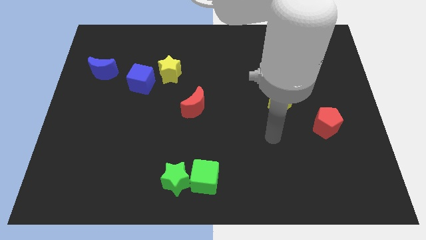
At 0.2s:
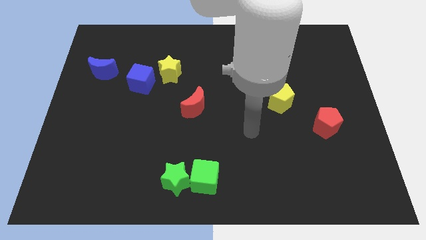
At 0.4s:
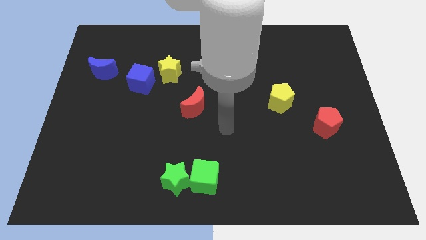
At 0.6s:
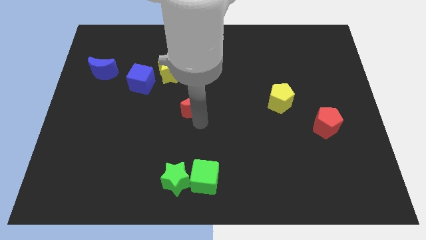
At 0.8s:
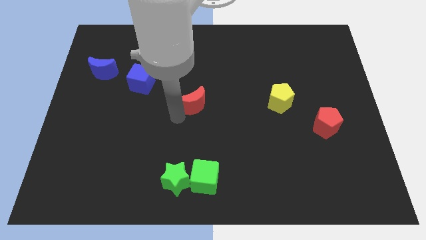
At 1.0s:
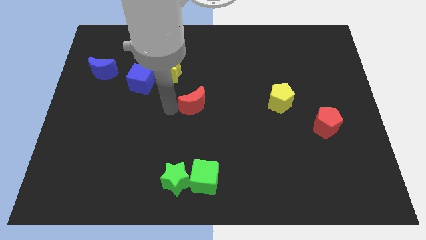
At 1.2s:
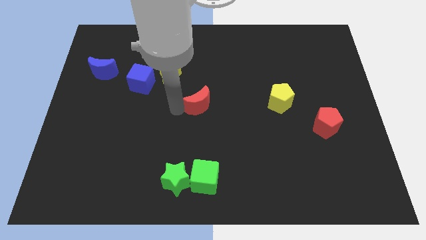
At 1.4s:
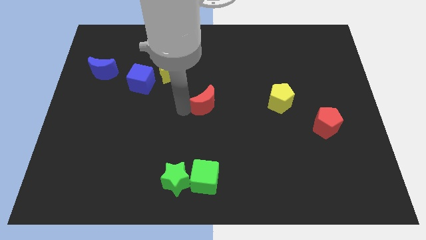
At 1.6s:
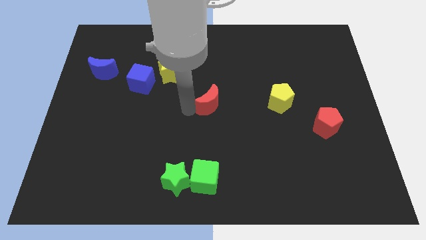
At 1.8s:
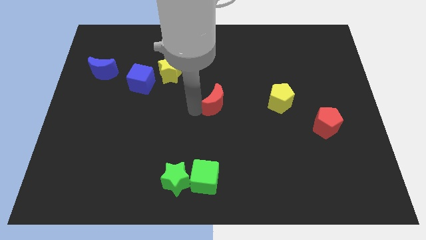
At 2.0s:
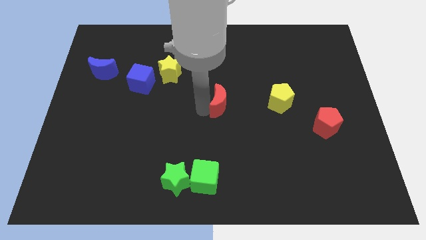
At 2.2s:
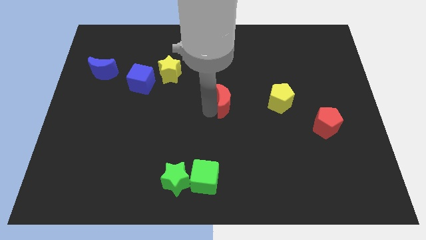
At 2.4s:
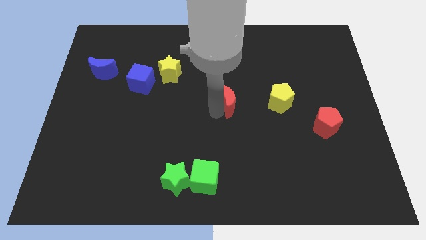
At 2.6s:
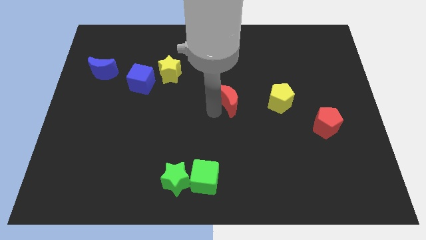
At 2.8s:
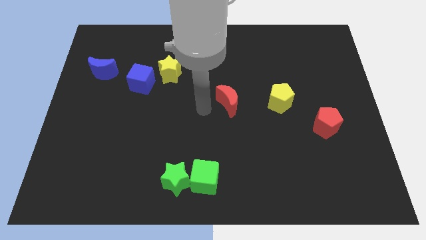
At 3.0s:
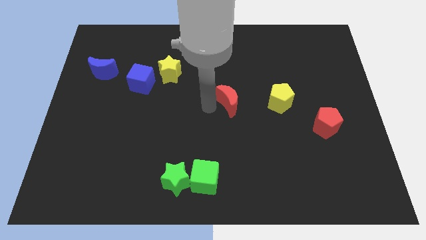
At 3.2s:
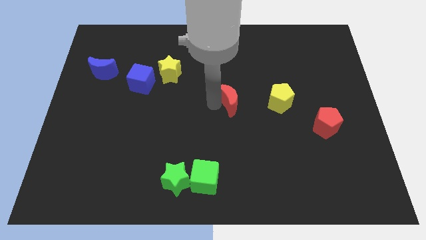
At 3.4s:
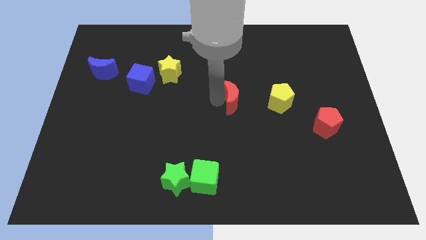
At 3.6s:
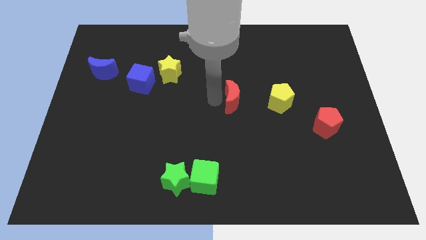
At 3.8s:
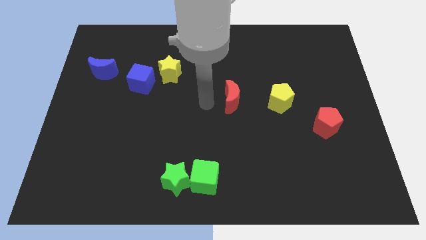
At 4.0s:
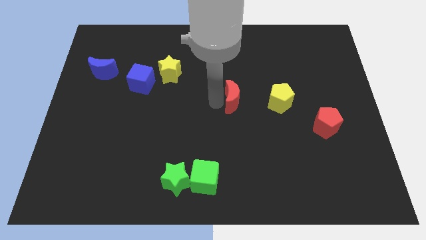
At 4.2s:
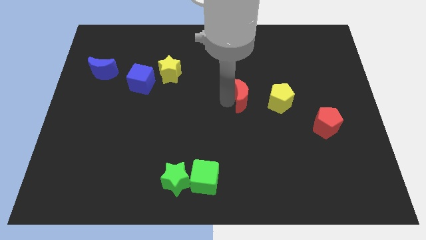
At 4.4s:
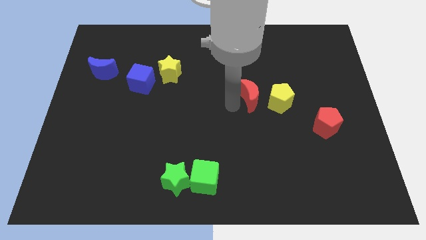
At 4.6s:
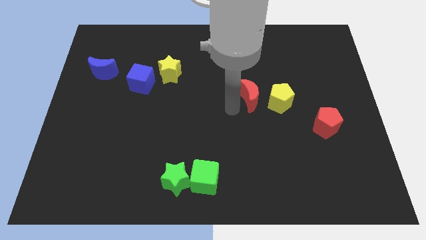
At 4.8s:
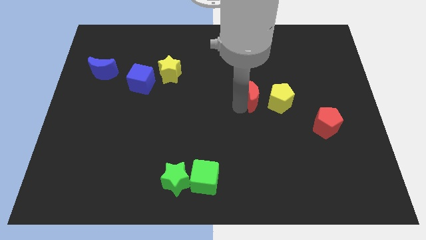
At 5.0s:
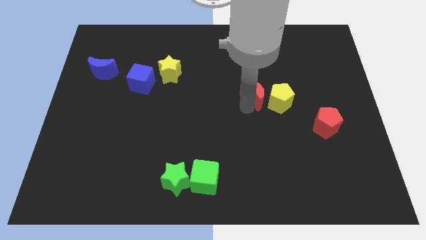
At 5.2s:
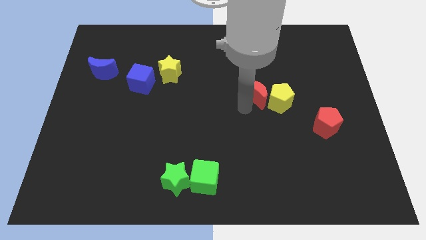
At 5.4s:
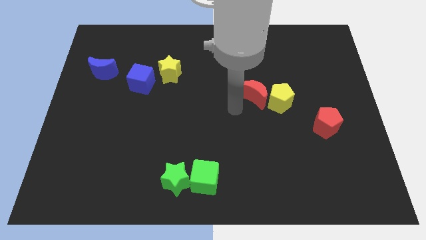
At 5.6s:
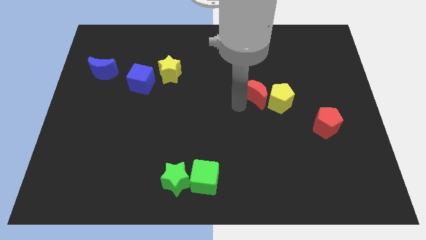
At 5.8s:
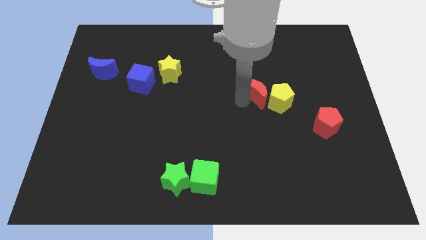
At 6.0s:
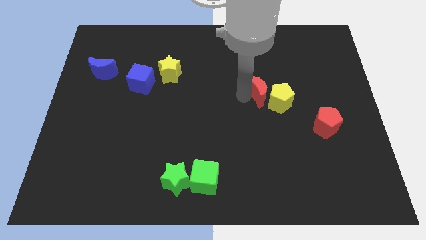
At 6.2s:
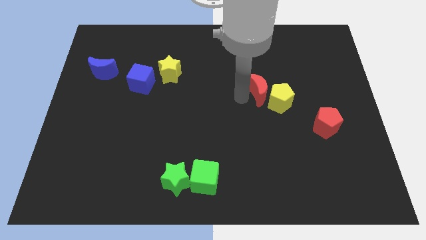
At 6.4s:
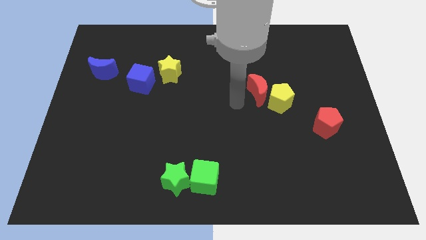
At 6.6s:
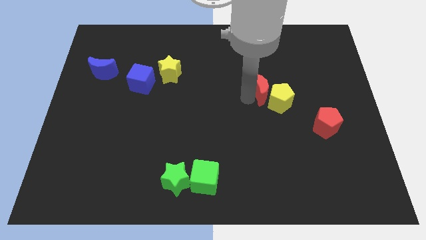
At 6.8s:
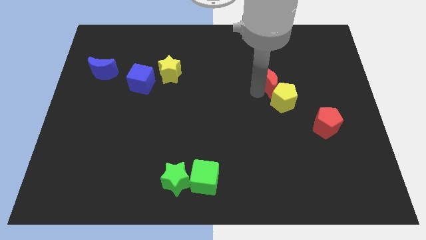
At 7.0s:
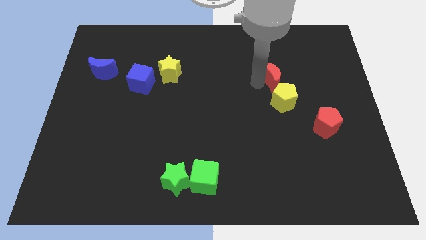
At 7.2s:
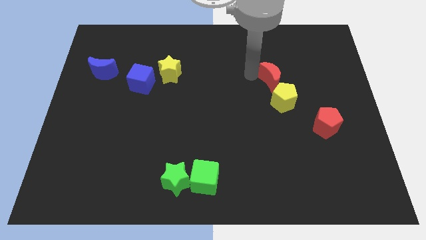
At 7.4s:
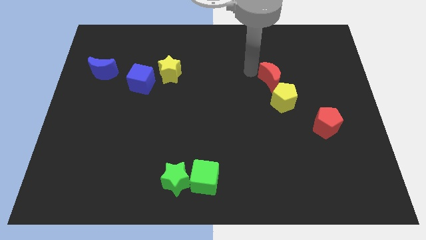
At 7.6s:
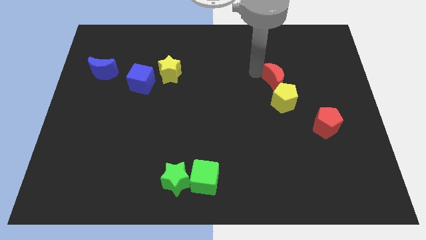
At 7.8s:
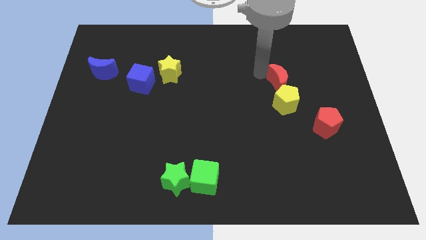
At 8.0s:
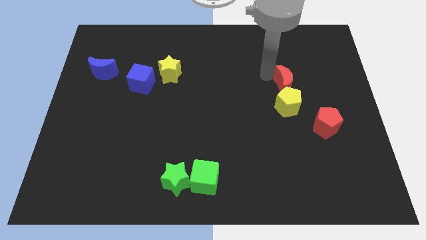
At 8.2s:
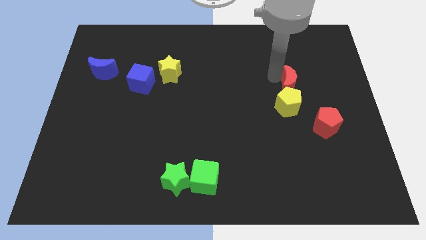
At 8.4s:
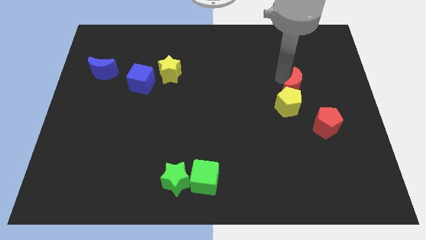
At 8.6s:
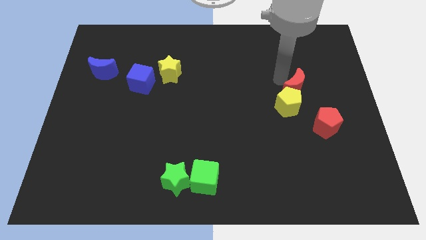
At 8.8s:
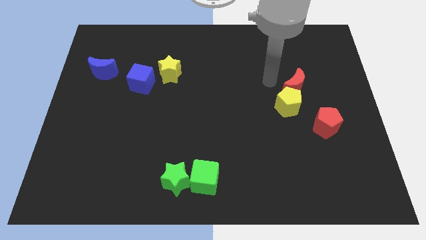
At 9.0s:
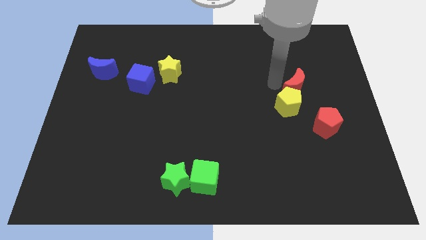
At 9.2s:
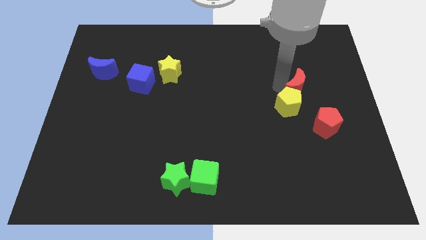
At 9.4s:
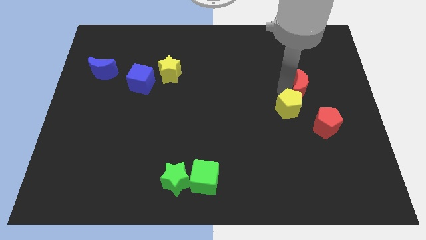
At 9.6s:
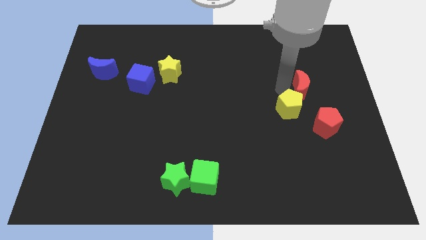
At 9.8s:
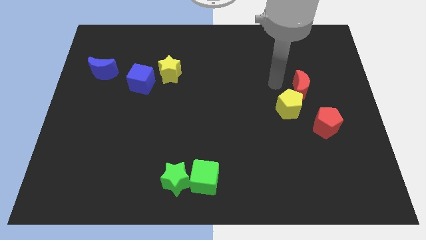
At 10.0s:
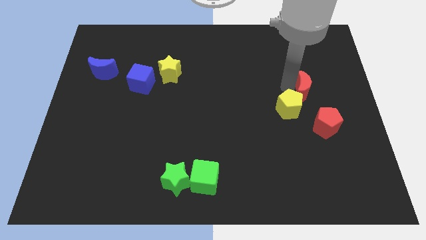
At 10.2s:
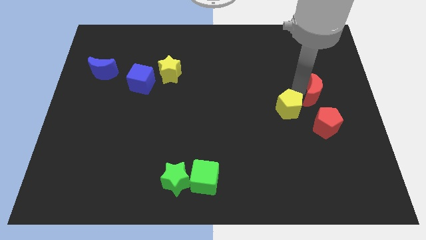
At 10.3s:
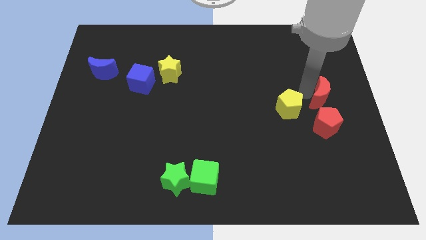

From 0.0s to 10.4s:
slide the red moon to the right side of the board

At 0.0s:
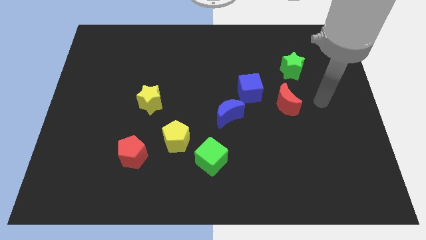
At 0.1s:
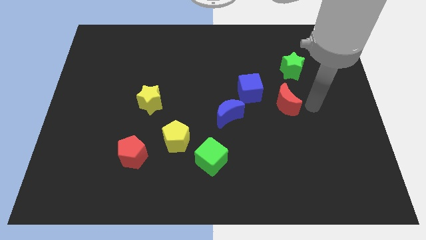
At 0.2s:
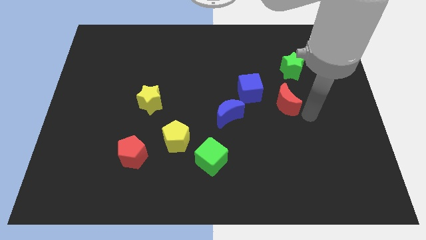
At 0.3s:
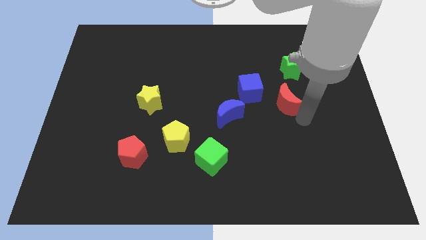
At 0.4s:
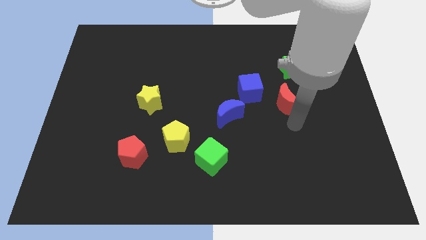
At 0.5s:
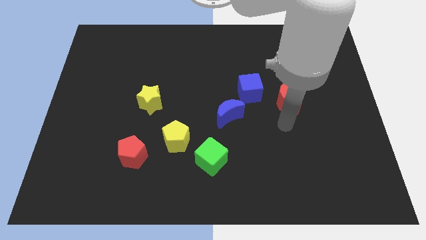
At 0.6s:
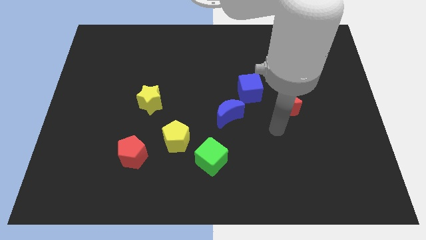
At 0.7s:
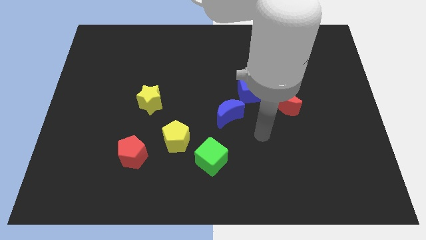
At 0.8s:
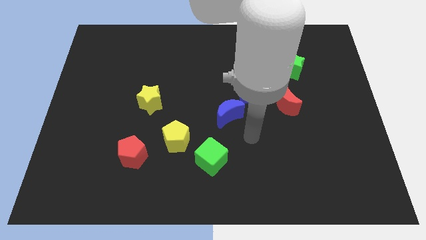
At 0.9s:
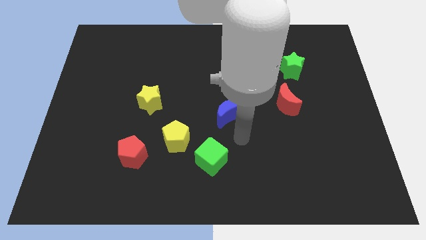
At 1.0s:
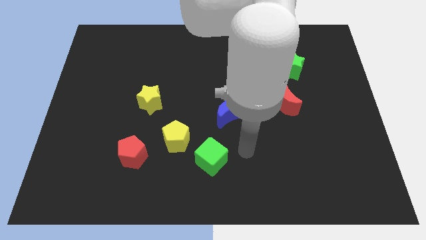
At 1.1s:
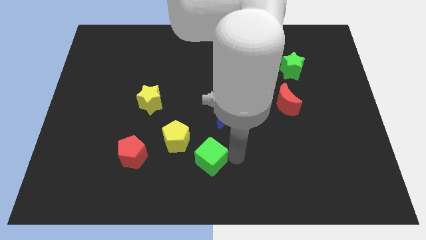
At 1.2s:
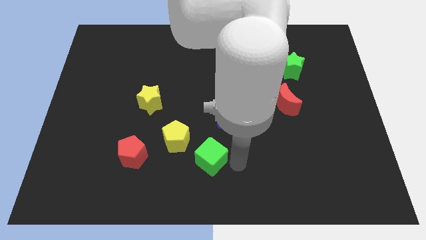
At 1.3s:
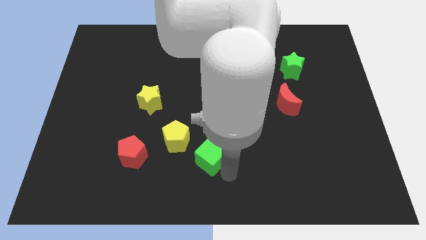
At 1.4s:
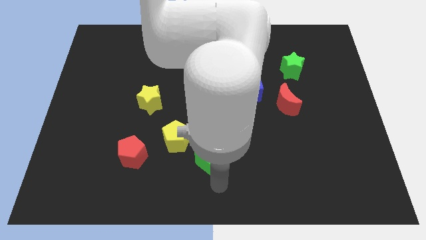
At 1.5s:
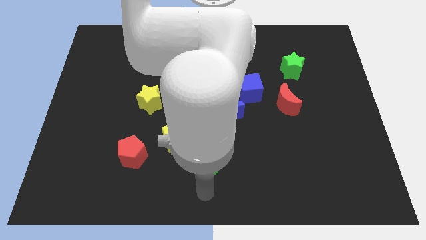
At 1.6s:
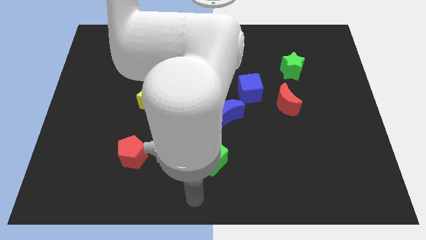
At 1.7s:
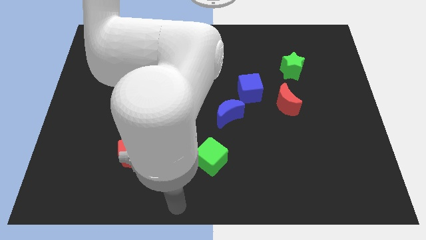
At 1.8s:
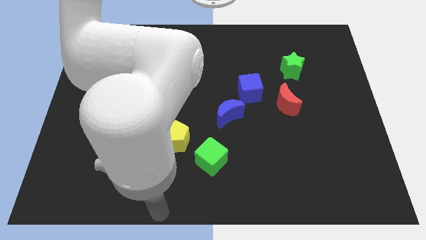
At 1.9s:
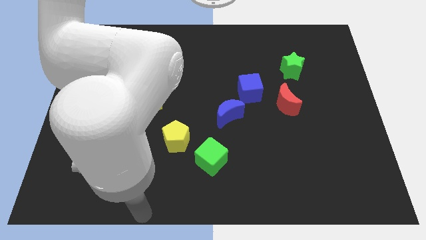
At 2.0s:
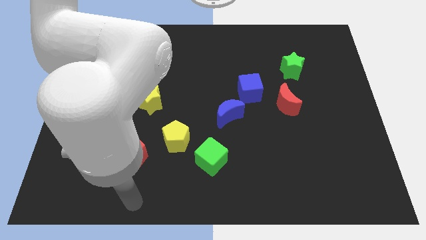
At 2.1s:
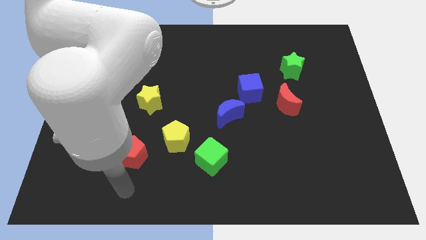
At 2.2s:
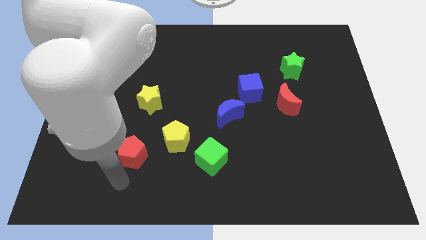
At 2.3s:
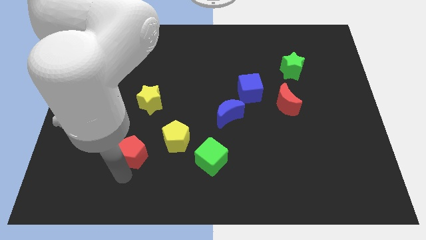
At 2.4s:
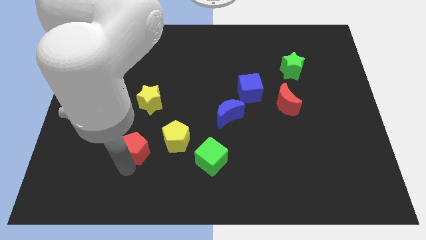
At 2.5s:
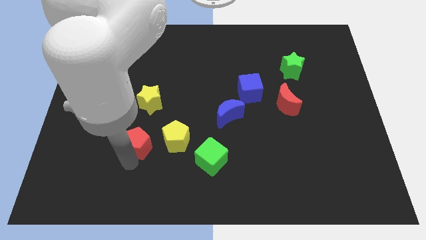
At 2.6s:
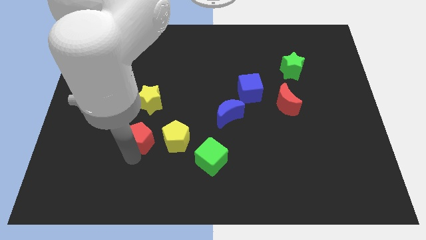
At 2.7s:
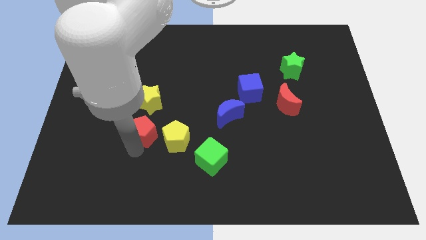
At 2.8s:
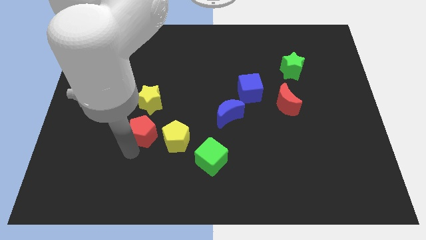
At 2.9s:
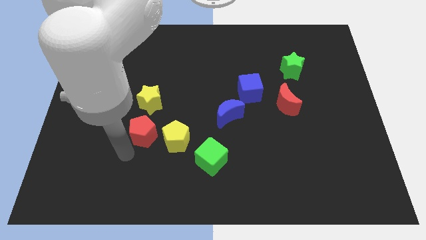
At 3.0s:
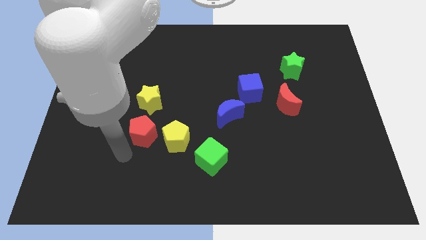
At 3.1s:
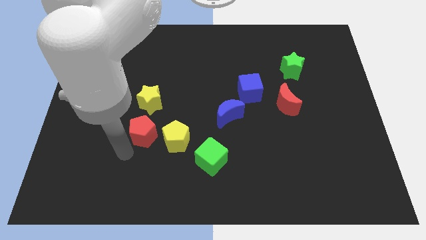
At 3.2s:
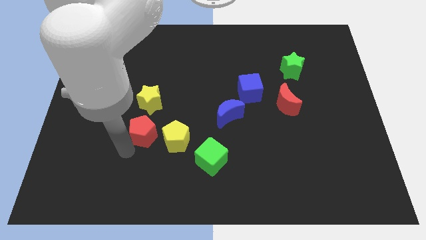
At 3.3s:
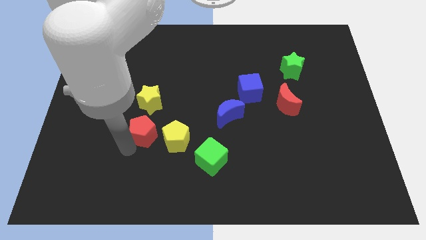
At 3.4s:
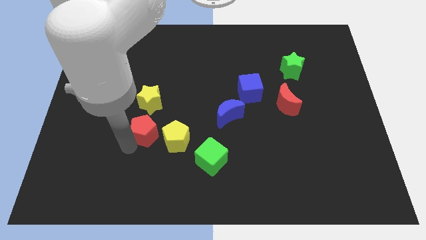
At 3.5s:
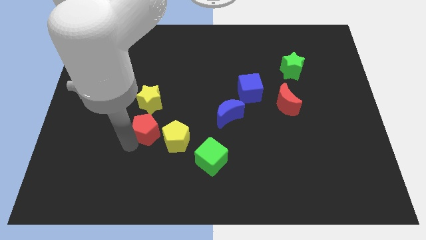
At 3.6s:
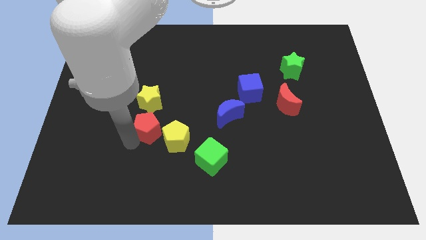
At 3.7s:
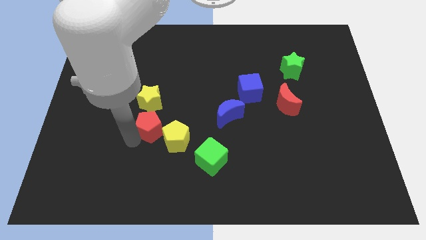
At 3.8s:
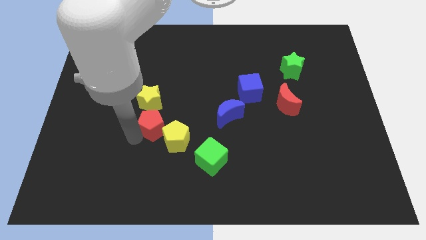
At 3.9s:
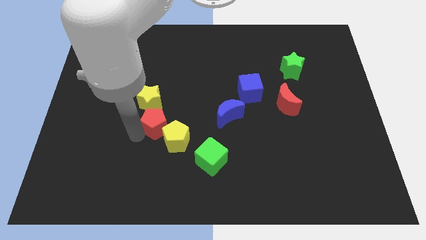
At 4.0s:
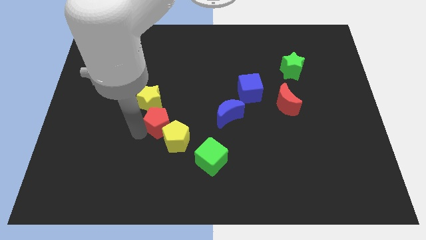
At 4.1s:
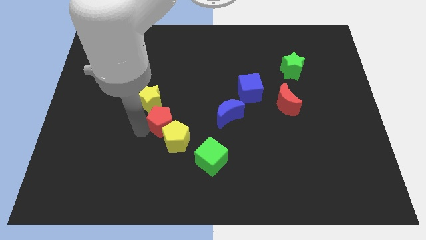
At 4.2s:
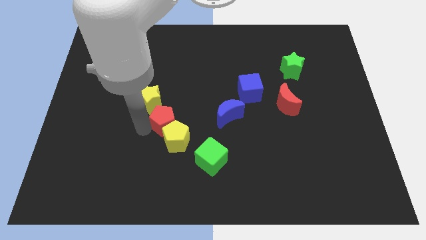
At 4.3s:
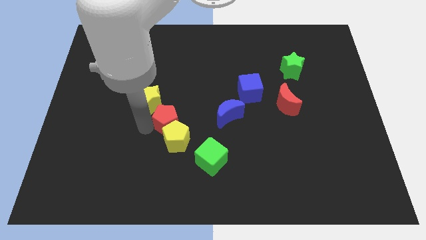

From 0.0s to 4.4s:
push the red pentagon to the center of the board
